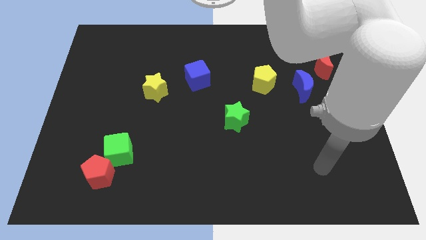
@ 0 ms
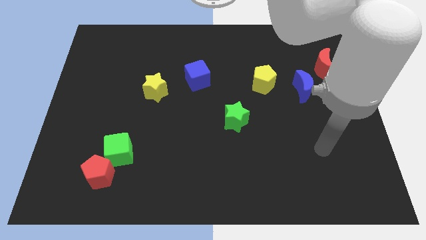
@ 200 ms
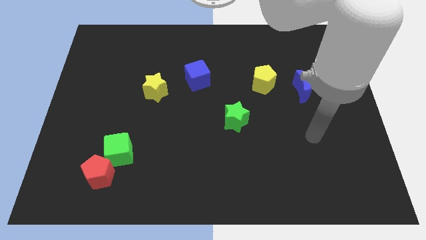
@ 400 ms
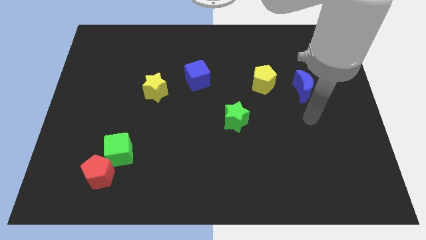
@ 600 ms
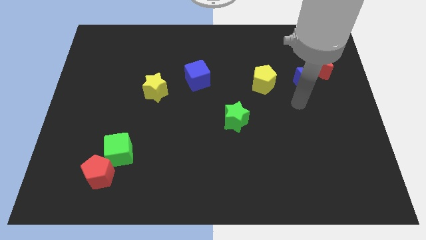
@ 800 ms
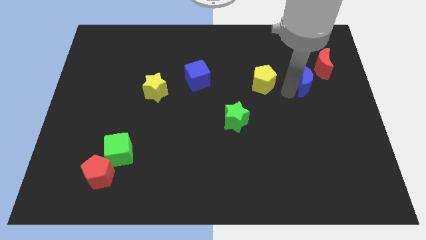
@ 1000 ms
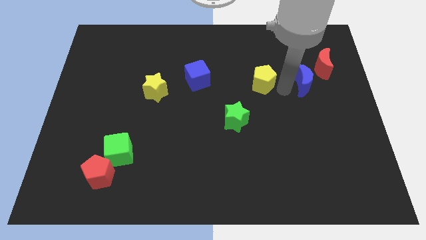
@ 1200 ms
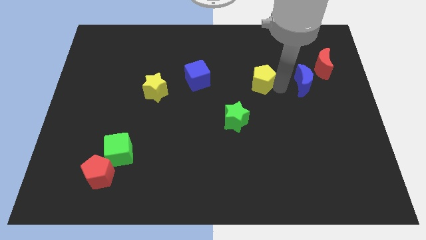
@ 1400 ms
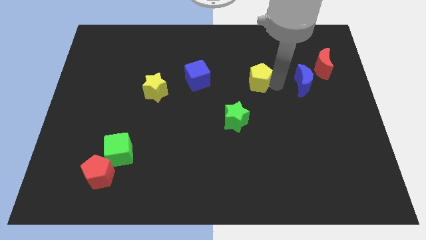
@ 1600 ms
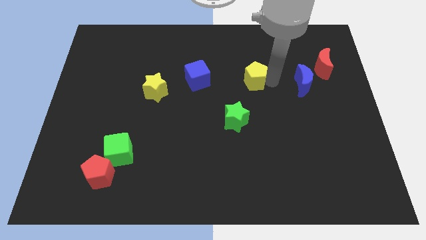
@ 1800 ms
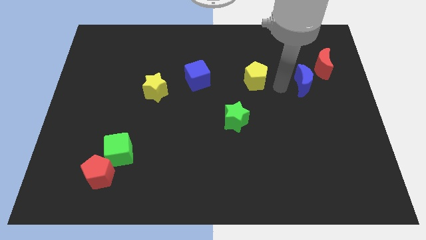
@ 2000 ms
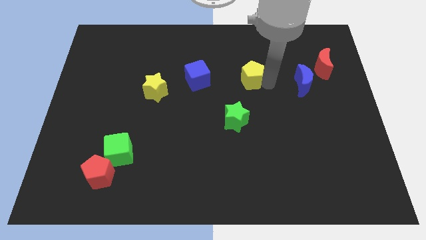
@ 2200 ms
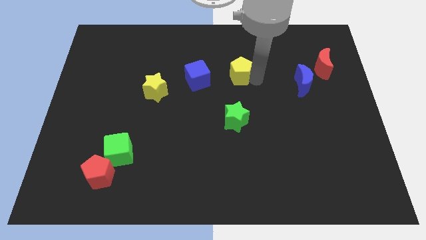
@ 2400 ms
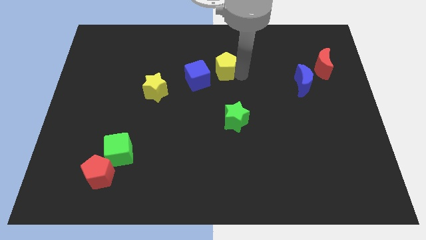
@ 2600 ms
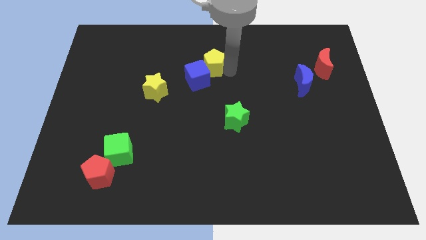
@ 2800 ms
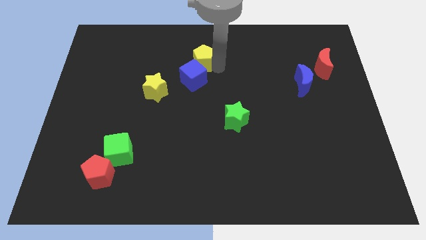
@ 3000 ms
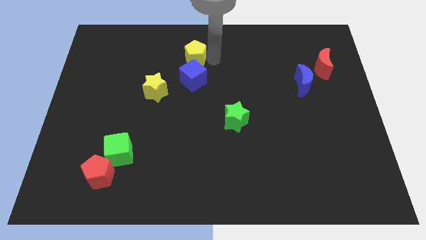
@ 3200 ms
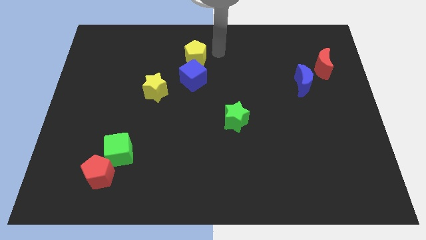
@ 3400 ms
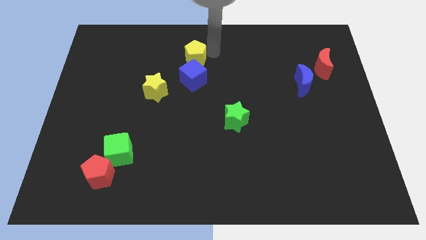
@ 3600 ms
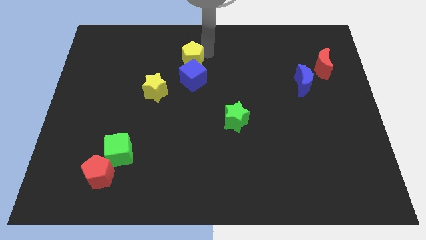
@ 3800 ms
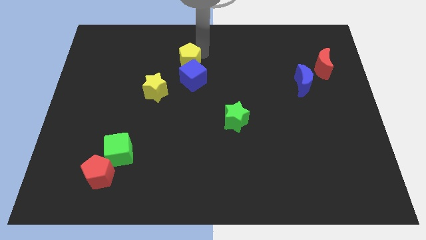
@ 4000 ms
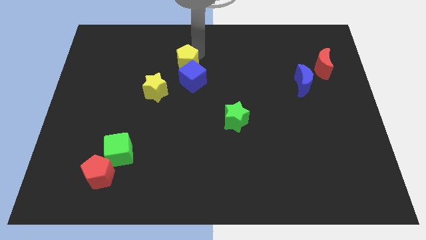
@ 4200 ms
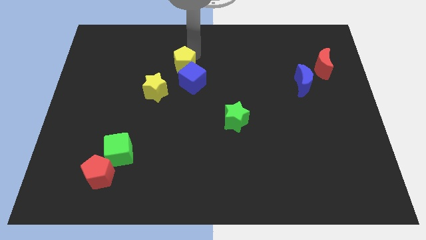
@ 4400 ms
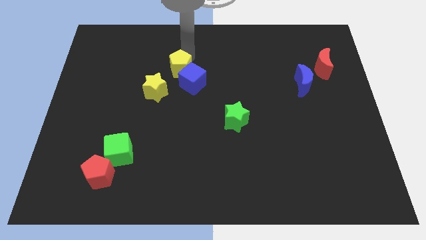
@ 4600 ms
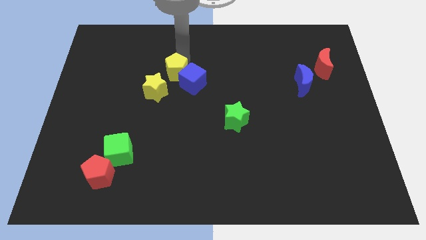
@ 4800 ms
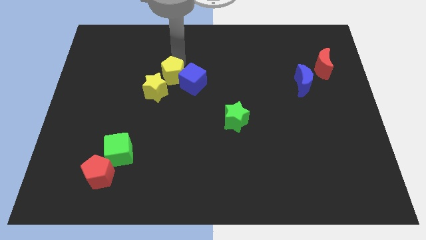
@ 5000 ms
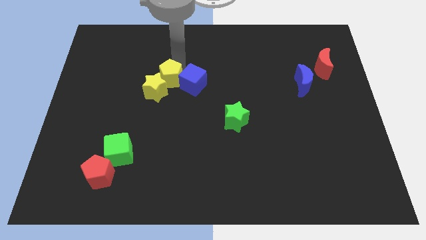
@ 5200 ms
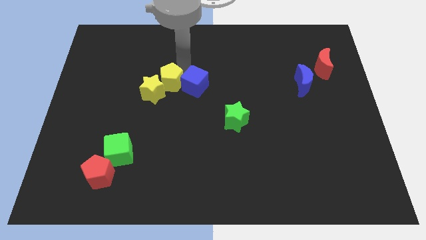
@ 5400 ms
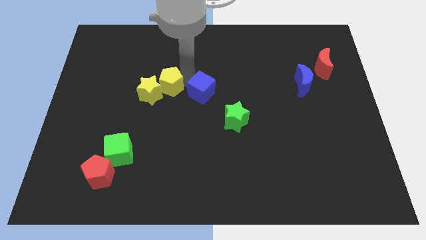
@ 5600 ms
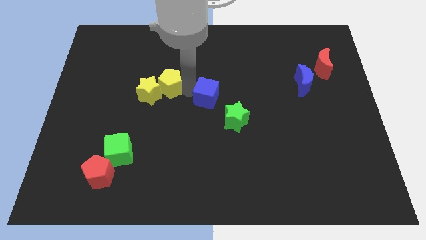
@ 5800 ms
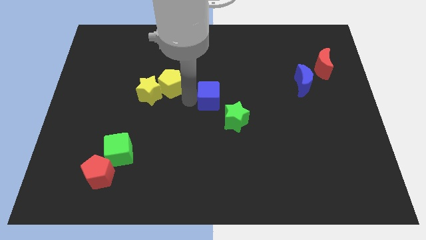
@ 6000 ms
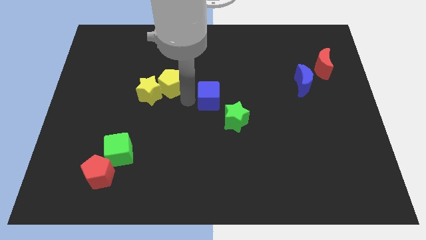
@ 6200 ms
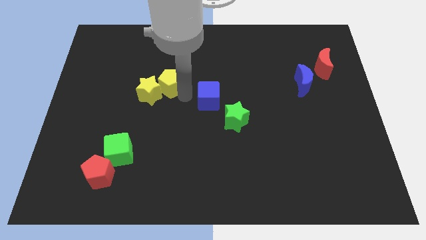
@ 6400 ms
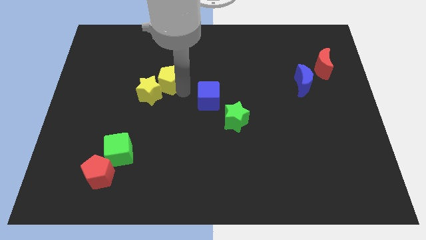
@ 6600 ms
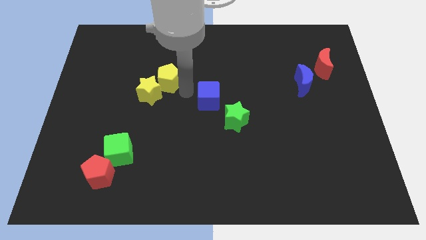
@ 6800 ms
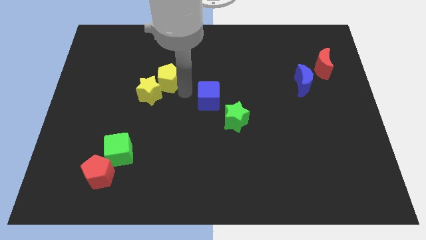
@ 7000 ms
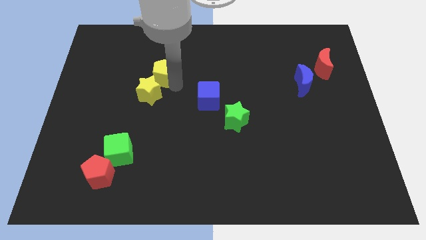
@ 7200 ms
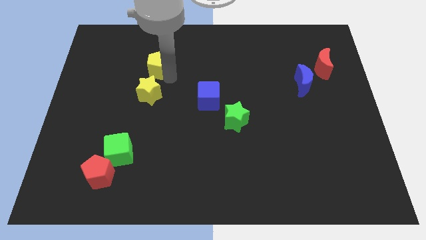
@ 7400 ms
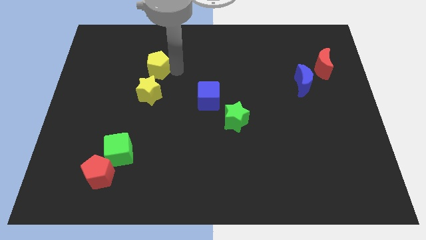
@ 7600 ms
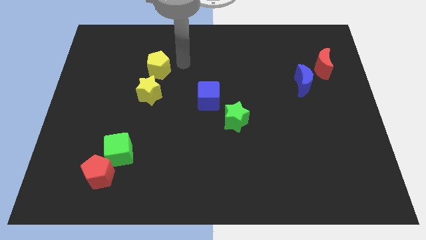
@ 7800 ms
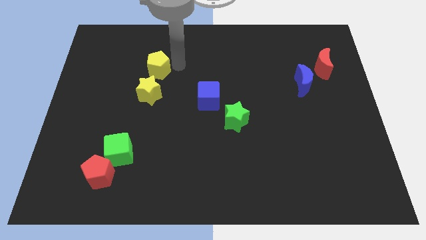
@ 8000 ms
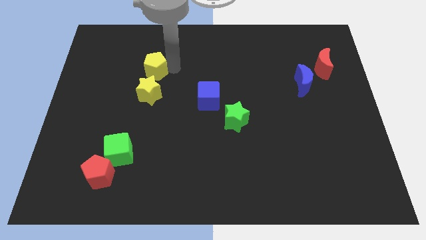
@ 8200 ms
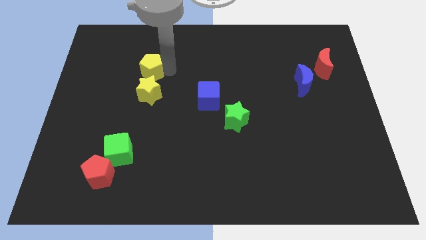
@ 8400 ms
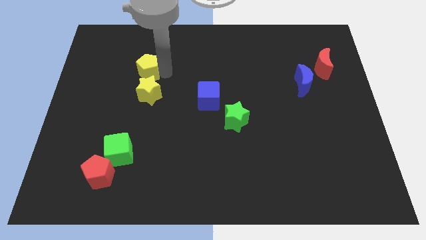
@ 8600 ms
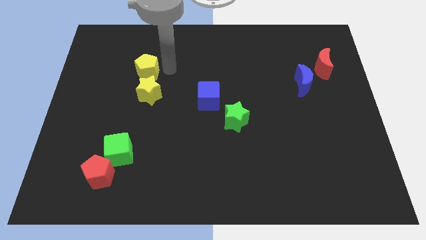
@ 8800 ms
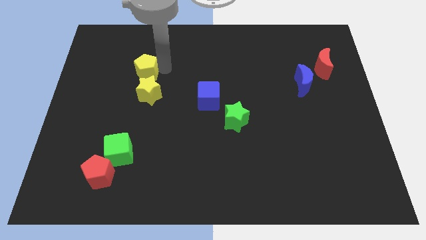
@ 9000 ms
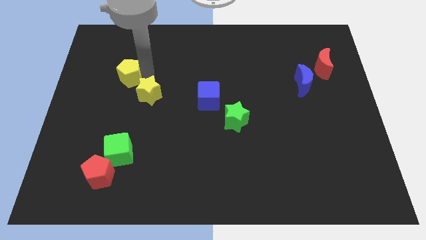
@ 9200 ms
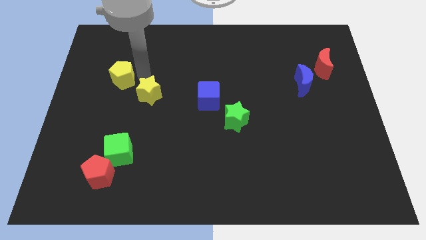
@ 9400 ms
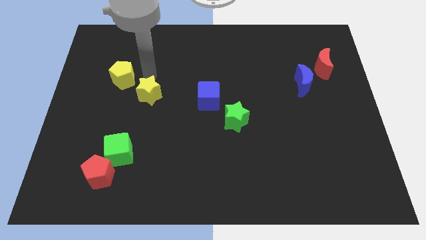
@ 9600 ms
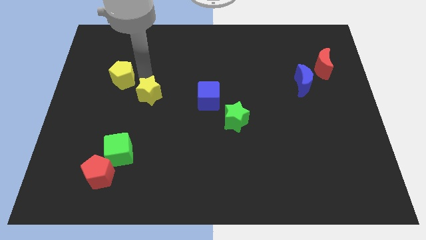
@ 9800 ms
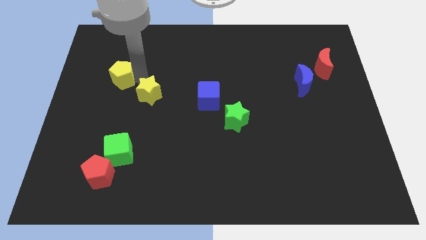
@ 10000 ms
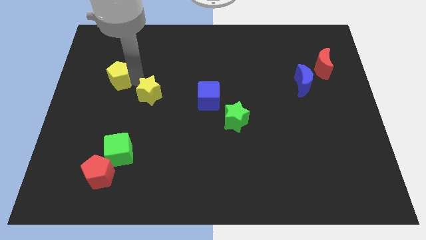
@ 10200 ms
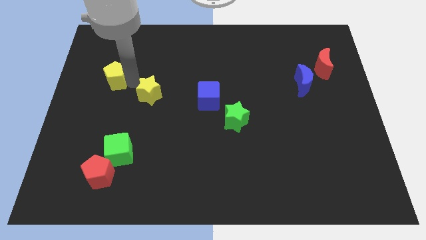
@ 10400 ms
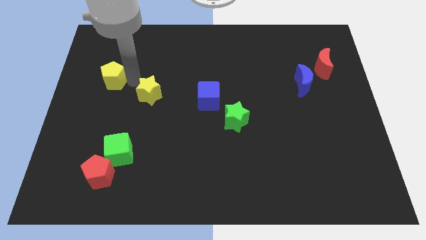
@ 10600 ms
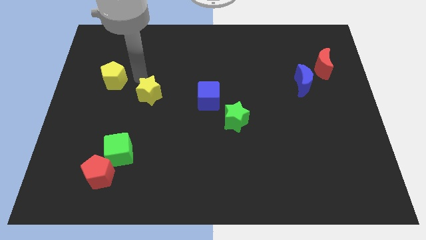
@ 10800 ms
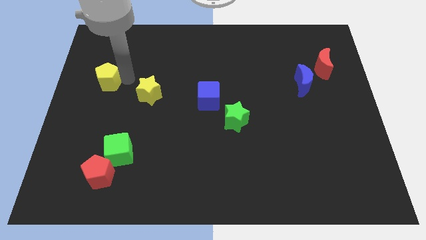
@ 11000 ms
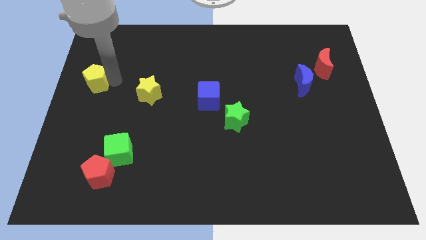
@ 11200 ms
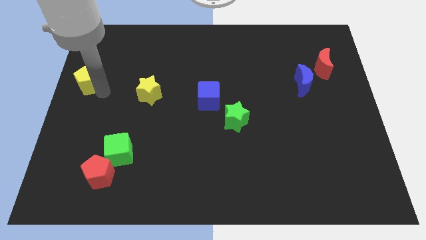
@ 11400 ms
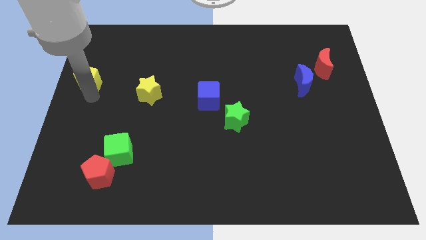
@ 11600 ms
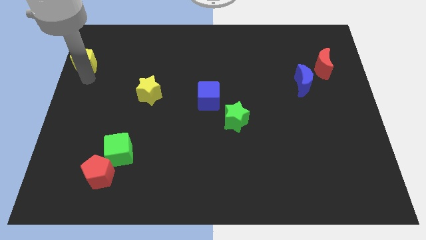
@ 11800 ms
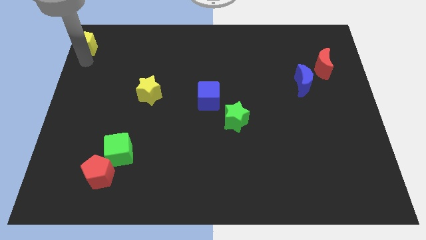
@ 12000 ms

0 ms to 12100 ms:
push the yellow pentagon to the top left corner

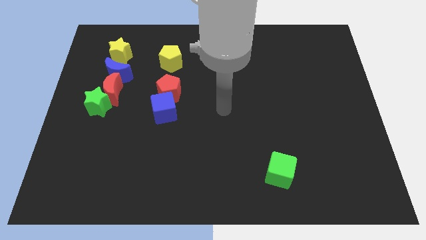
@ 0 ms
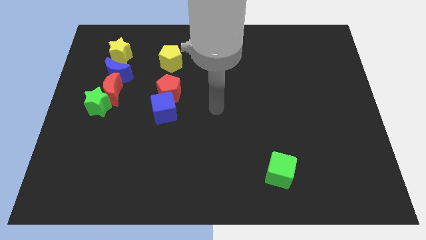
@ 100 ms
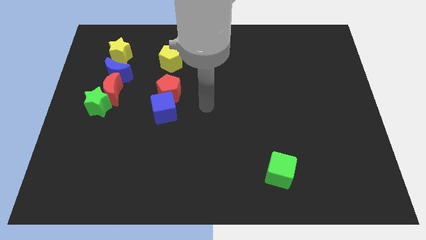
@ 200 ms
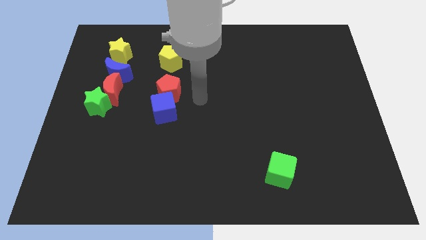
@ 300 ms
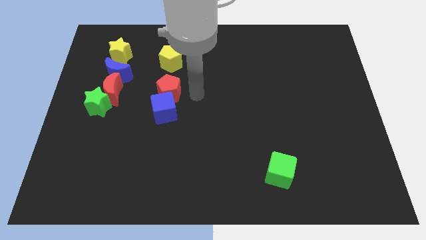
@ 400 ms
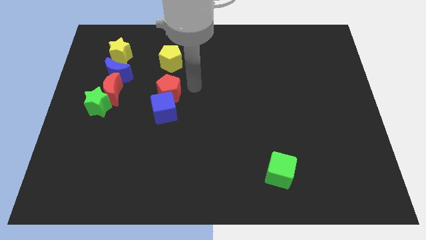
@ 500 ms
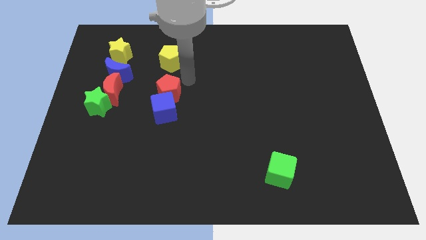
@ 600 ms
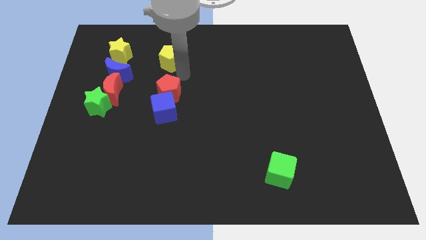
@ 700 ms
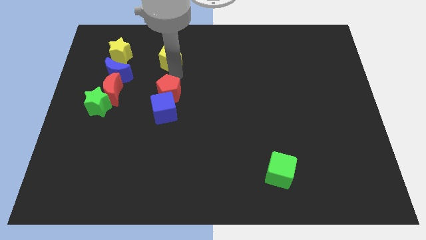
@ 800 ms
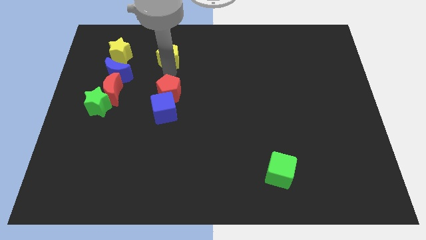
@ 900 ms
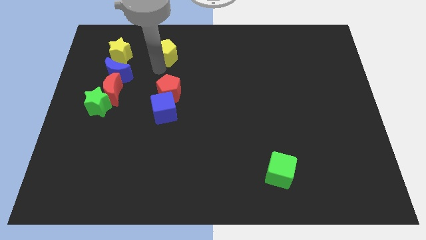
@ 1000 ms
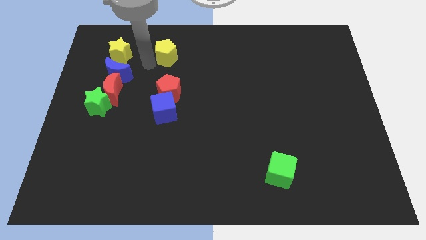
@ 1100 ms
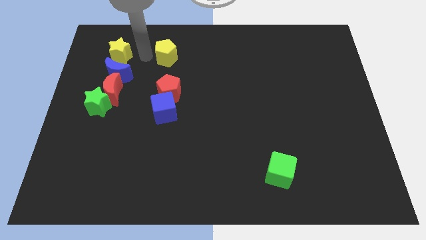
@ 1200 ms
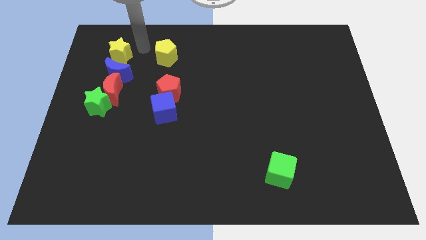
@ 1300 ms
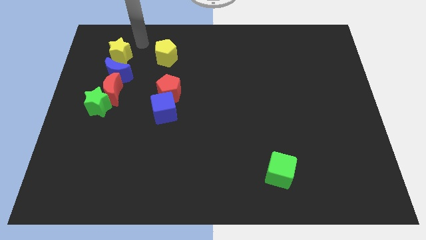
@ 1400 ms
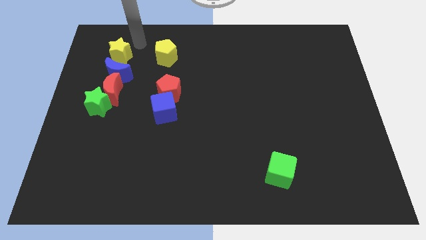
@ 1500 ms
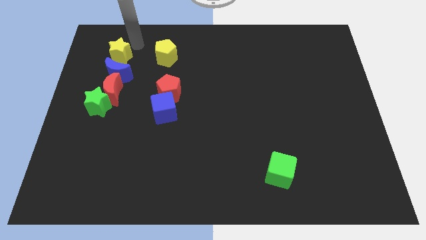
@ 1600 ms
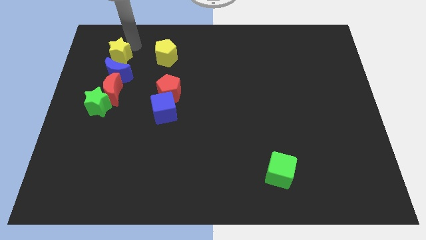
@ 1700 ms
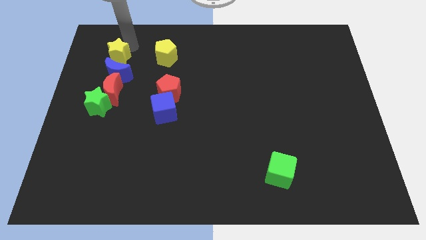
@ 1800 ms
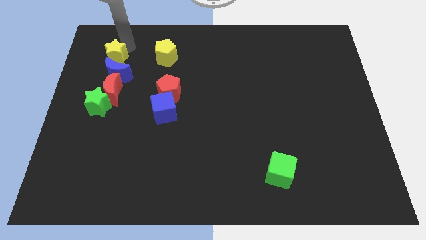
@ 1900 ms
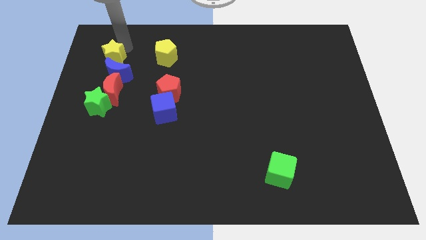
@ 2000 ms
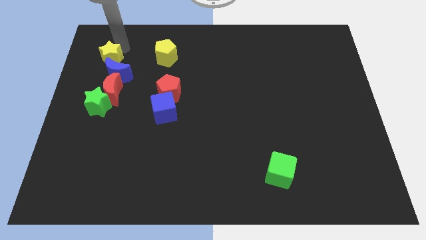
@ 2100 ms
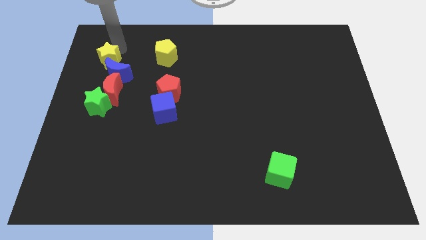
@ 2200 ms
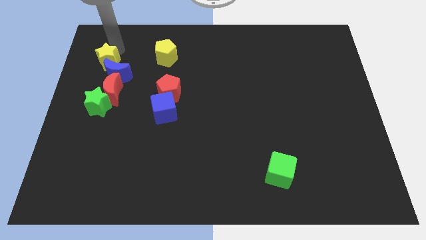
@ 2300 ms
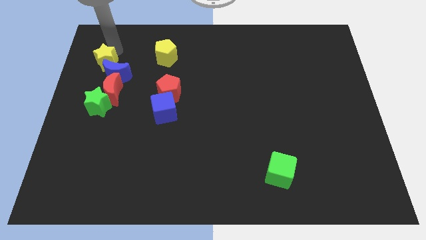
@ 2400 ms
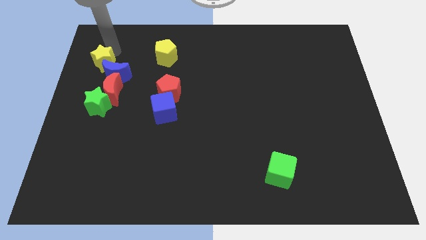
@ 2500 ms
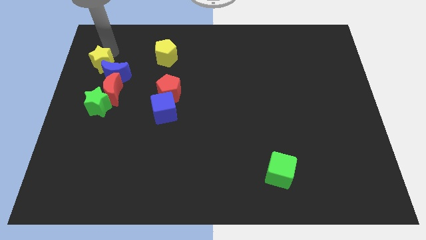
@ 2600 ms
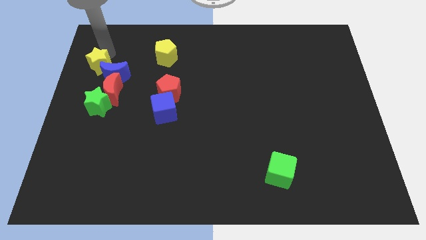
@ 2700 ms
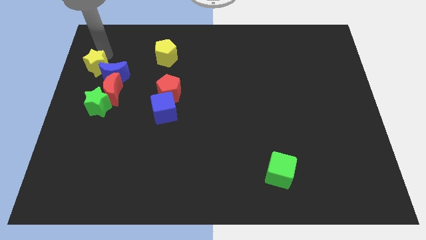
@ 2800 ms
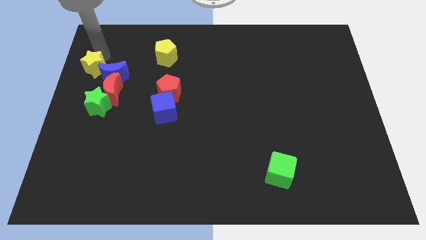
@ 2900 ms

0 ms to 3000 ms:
move the yellow star to the left side
